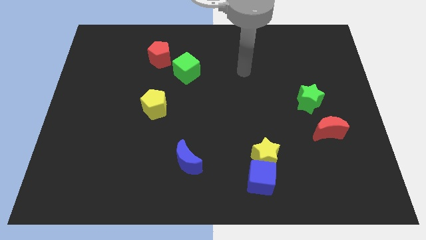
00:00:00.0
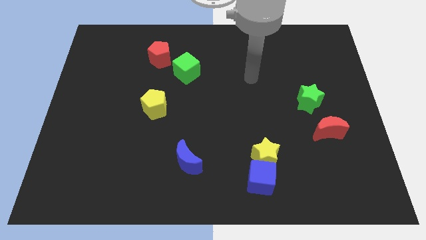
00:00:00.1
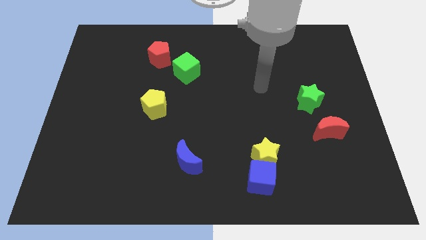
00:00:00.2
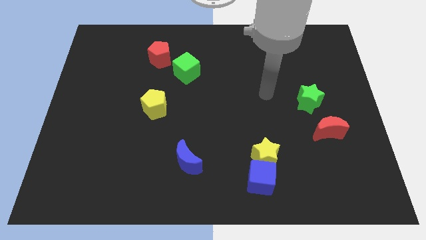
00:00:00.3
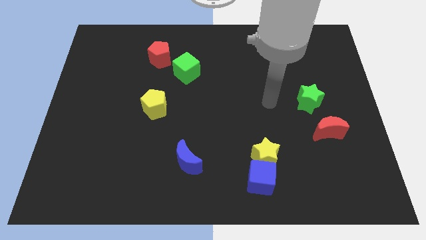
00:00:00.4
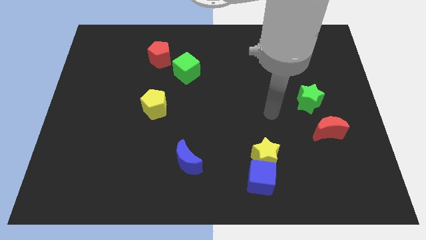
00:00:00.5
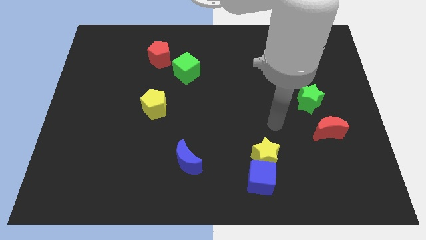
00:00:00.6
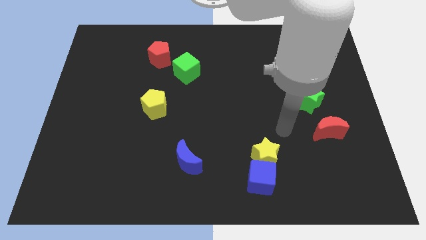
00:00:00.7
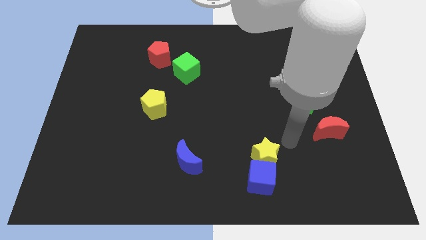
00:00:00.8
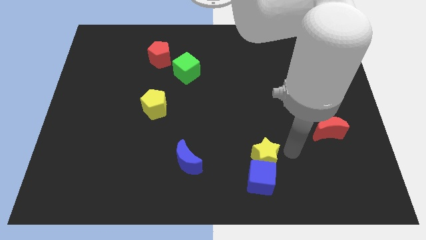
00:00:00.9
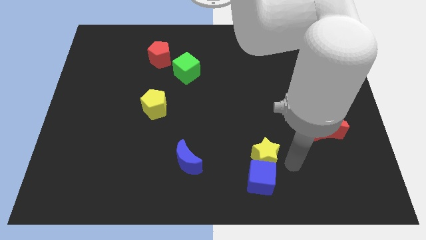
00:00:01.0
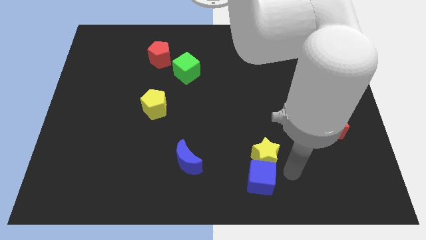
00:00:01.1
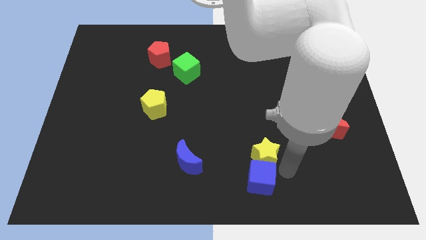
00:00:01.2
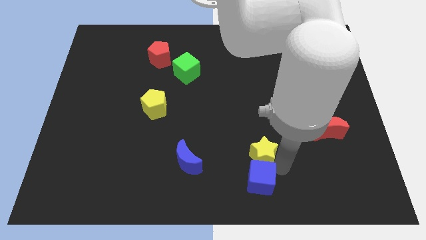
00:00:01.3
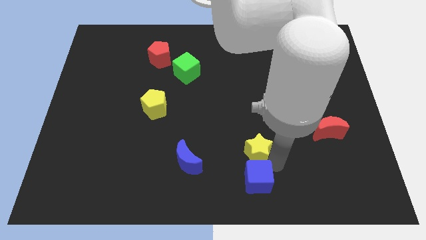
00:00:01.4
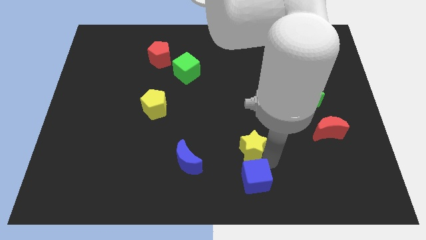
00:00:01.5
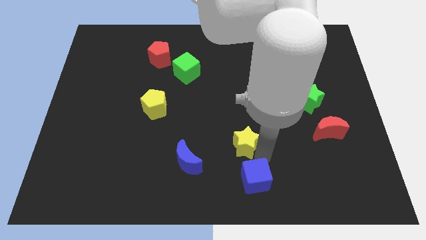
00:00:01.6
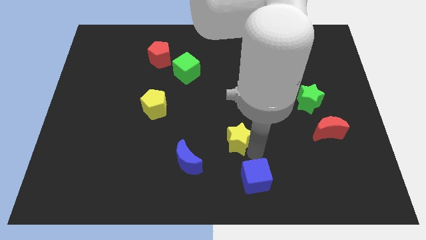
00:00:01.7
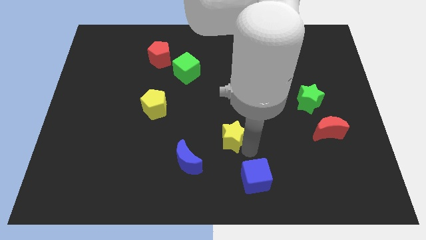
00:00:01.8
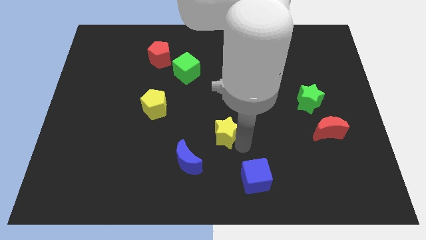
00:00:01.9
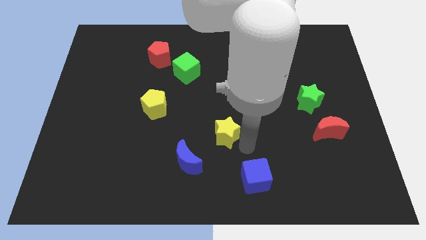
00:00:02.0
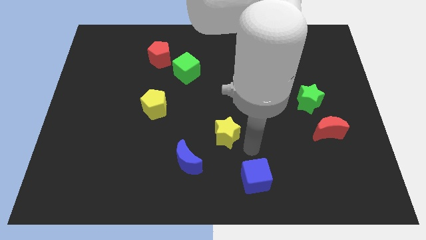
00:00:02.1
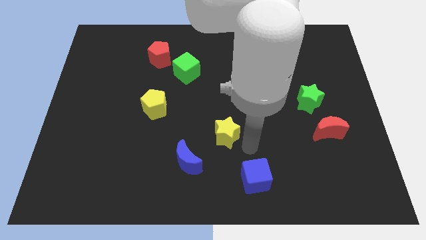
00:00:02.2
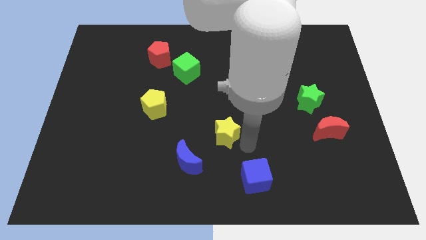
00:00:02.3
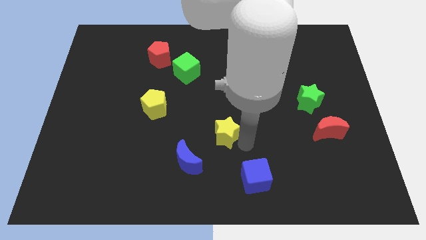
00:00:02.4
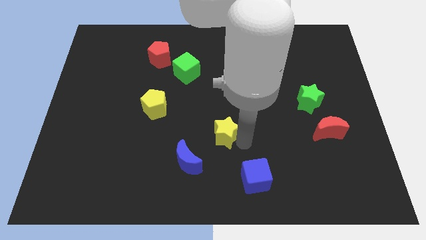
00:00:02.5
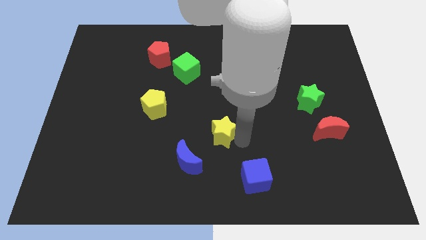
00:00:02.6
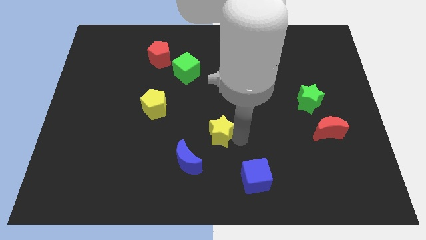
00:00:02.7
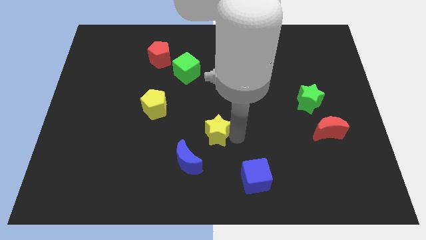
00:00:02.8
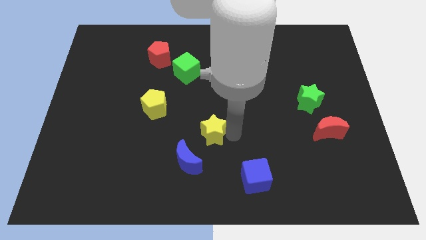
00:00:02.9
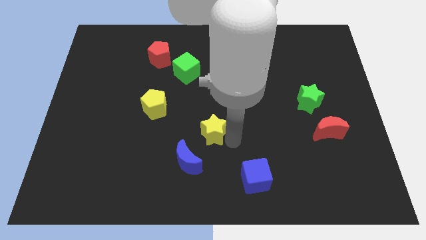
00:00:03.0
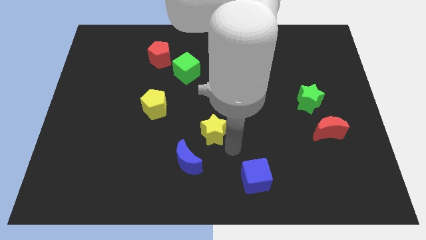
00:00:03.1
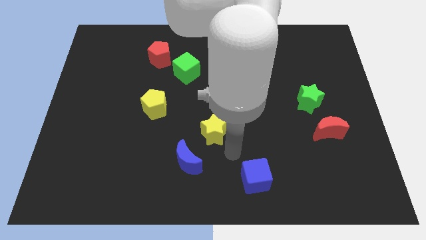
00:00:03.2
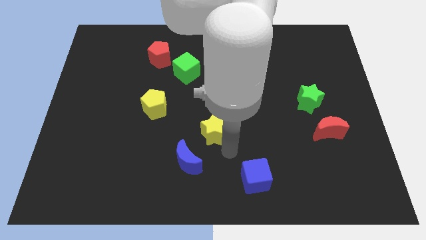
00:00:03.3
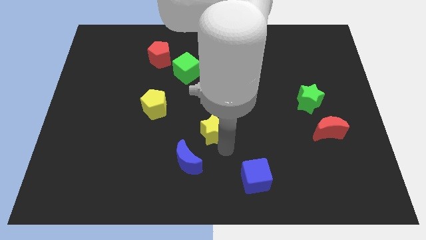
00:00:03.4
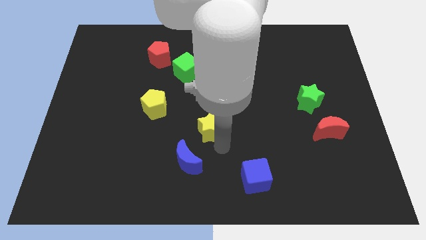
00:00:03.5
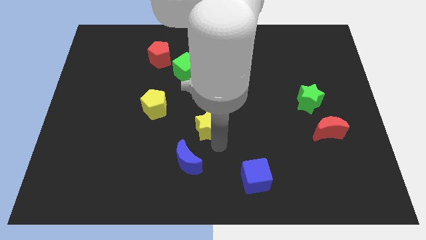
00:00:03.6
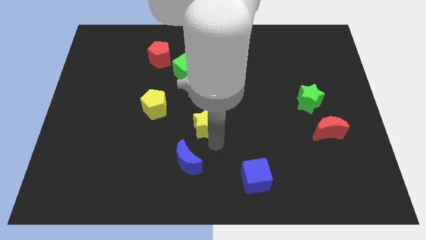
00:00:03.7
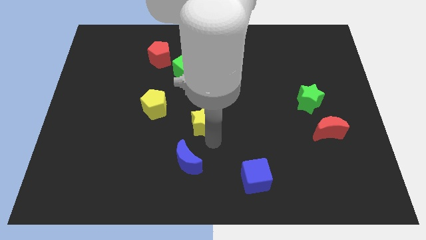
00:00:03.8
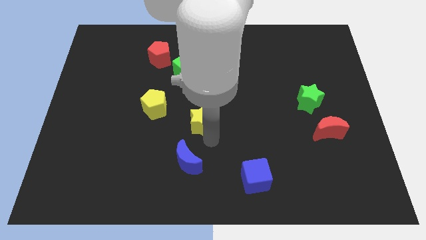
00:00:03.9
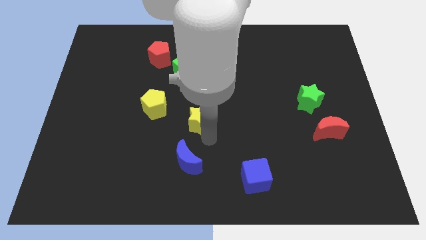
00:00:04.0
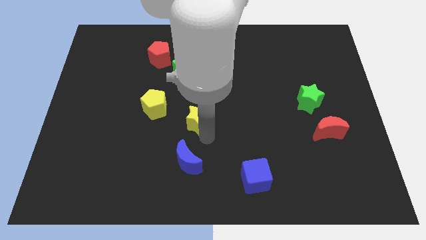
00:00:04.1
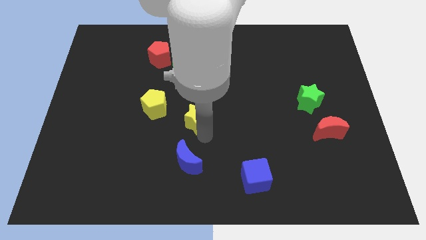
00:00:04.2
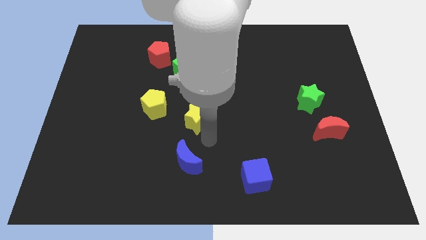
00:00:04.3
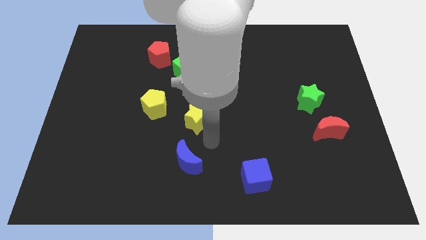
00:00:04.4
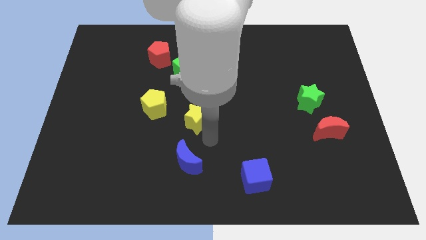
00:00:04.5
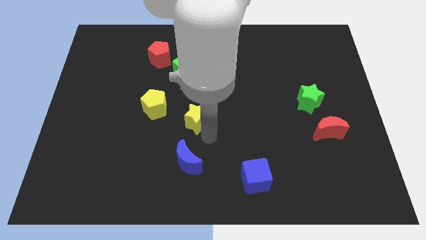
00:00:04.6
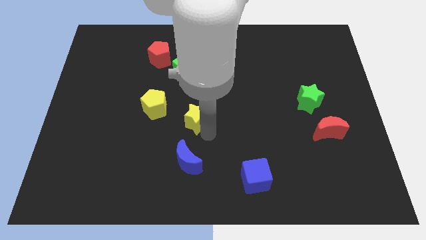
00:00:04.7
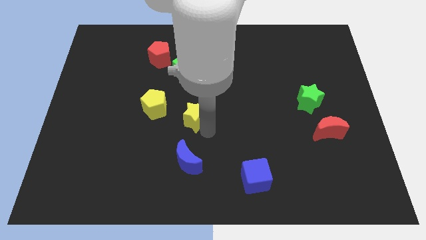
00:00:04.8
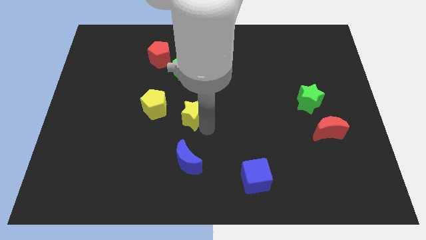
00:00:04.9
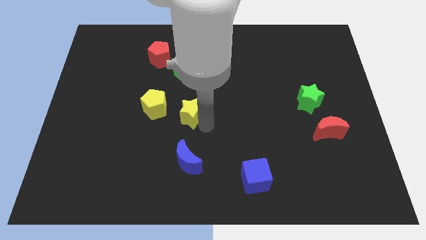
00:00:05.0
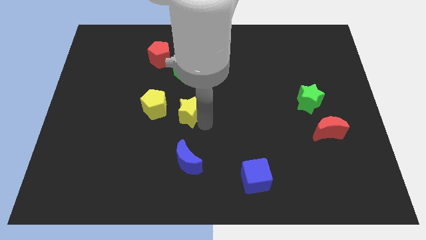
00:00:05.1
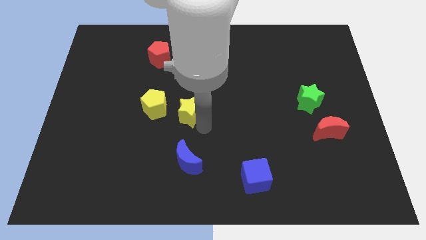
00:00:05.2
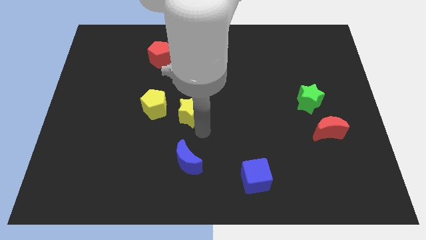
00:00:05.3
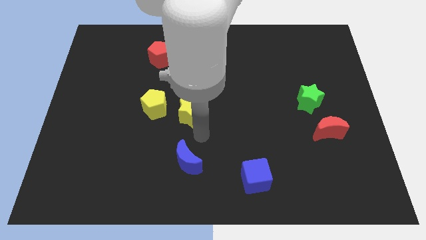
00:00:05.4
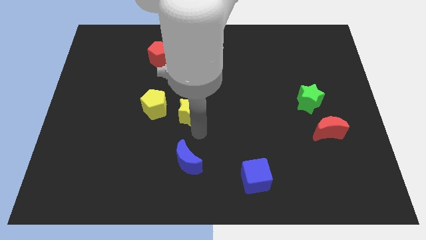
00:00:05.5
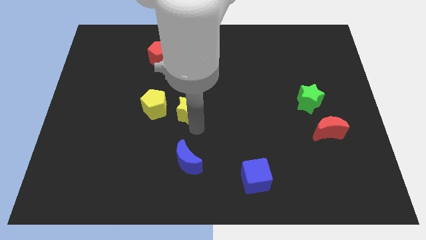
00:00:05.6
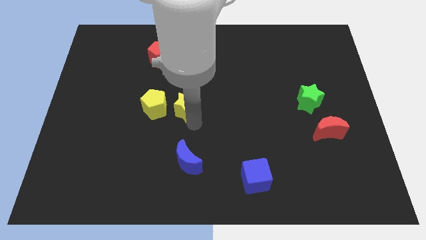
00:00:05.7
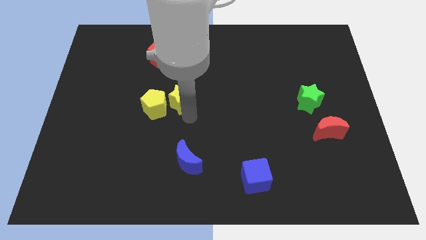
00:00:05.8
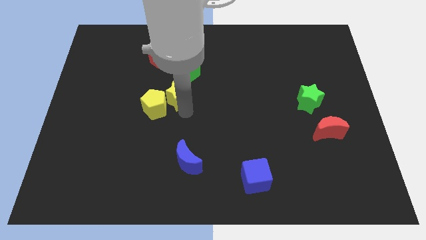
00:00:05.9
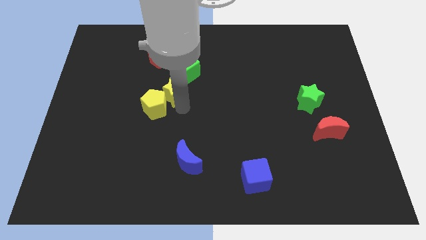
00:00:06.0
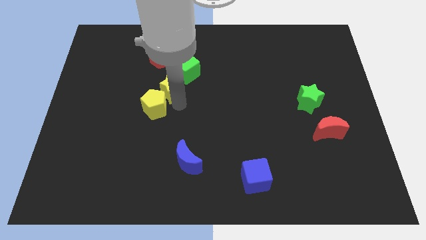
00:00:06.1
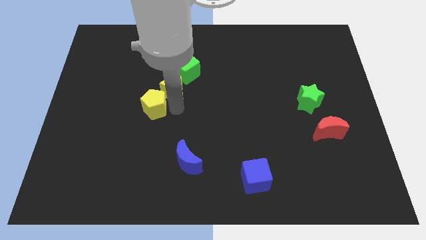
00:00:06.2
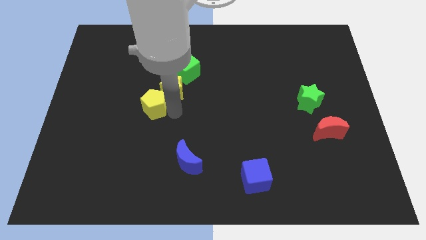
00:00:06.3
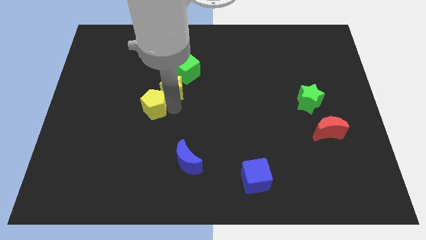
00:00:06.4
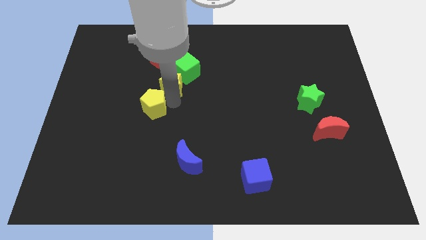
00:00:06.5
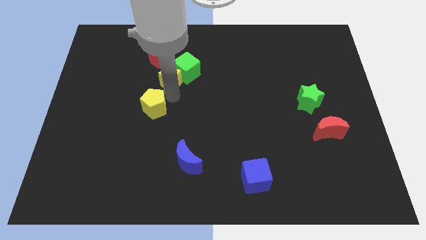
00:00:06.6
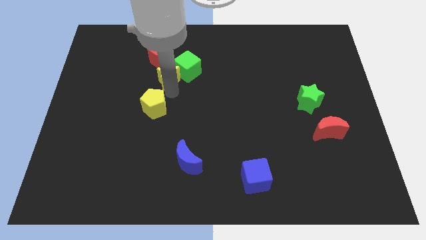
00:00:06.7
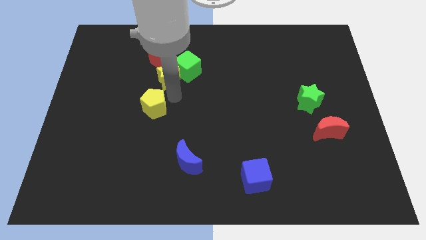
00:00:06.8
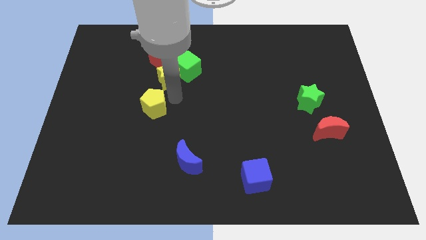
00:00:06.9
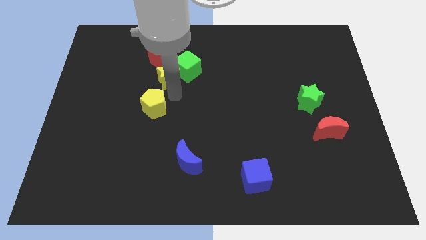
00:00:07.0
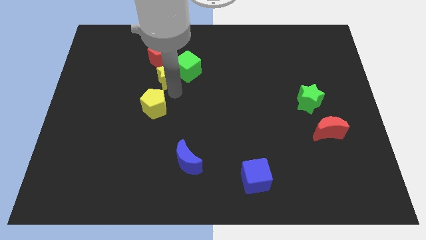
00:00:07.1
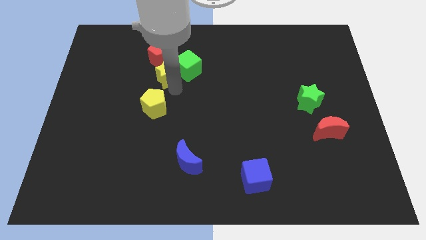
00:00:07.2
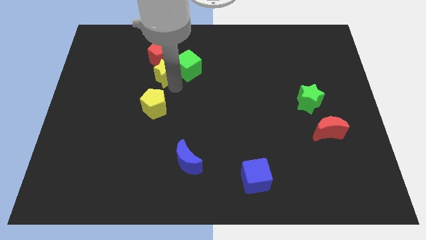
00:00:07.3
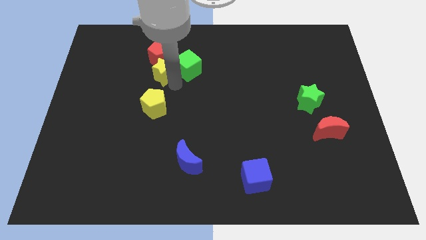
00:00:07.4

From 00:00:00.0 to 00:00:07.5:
push the yellow star towards the red pentagon
